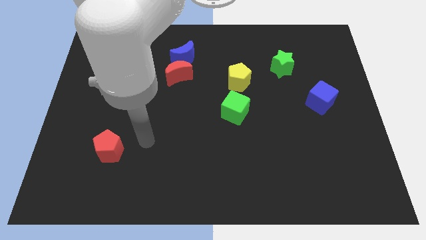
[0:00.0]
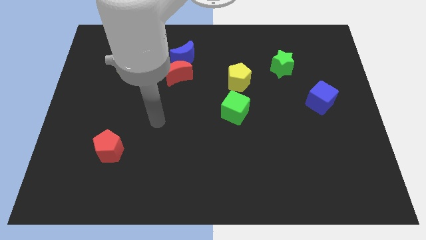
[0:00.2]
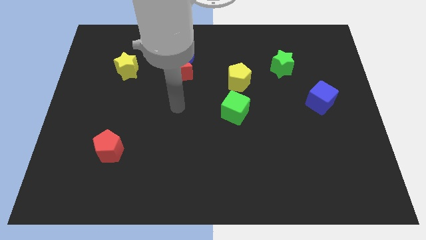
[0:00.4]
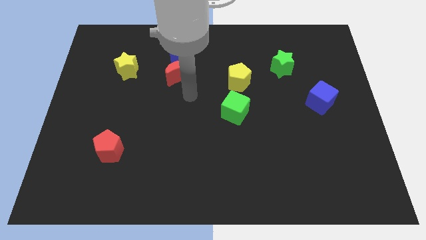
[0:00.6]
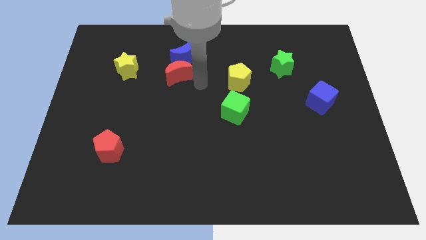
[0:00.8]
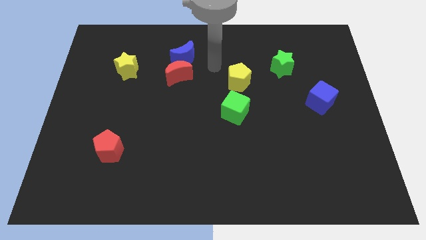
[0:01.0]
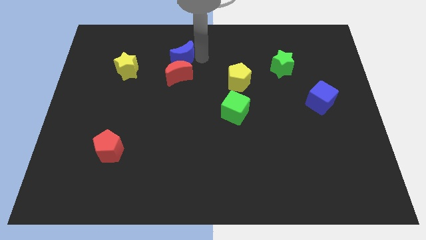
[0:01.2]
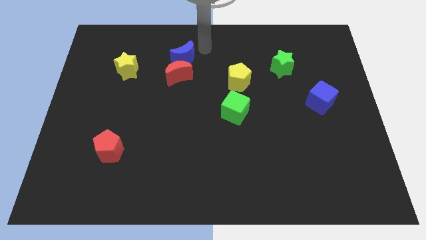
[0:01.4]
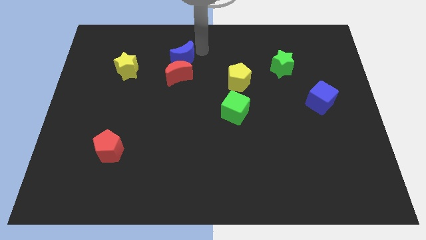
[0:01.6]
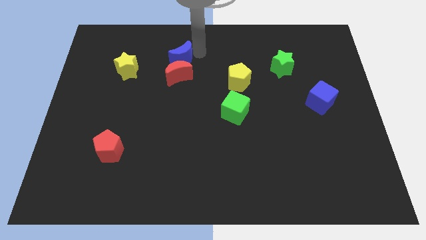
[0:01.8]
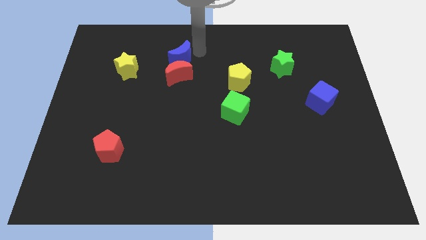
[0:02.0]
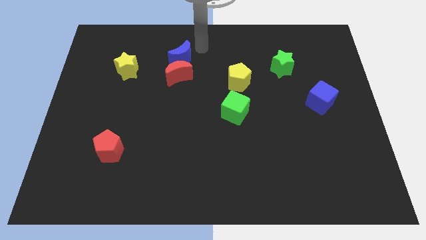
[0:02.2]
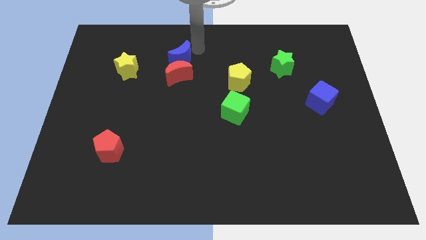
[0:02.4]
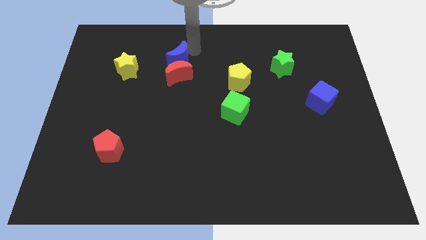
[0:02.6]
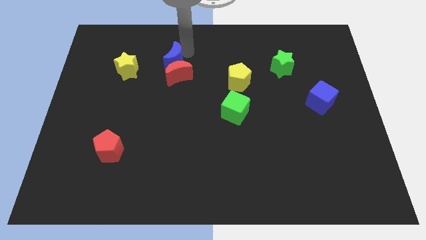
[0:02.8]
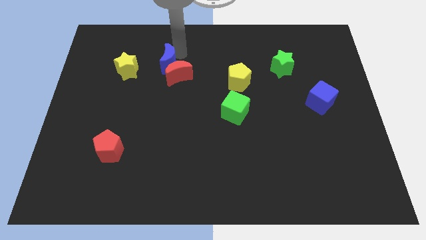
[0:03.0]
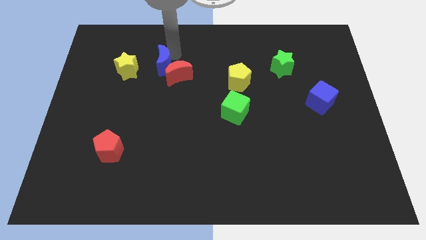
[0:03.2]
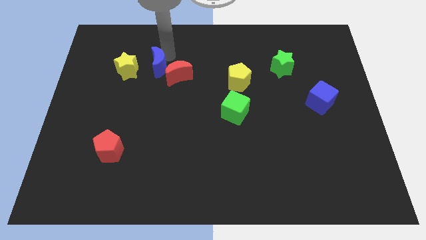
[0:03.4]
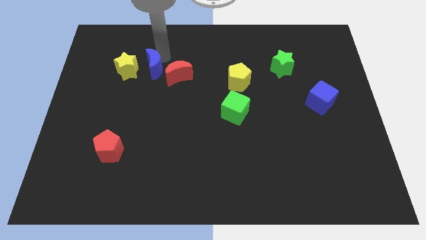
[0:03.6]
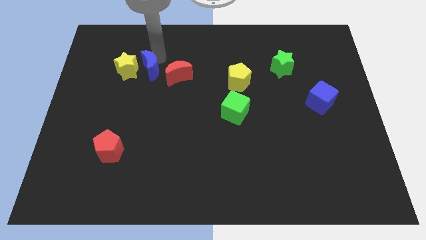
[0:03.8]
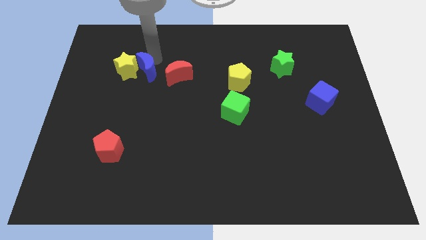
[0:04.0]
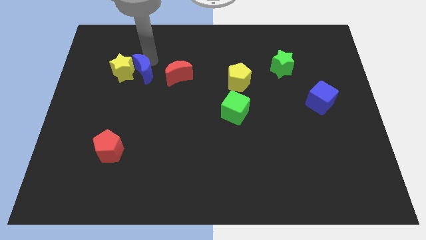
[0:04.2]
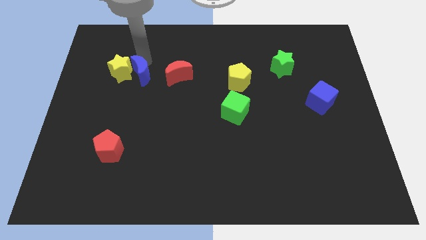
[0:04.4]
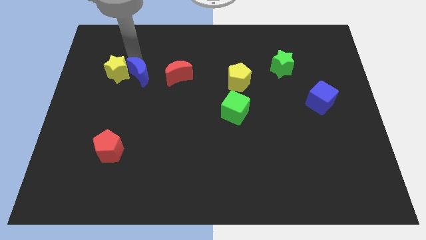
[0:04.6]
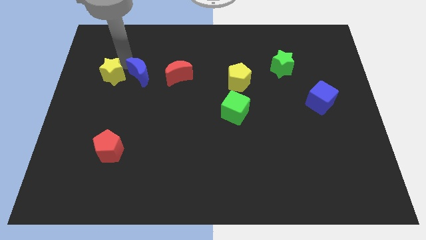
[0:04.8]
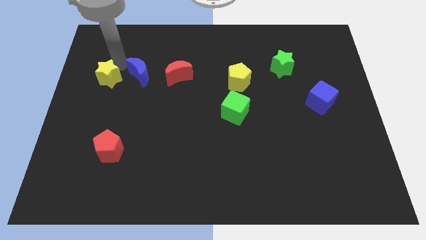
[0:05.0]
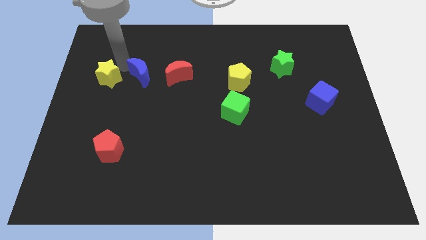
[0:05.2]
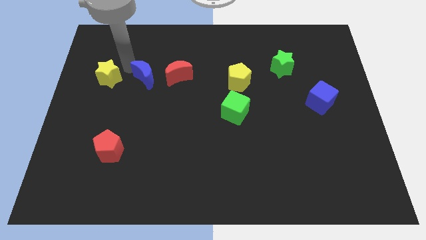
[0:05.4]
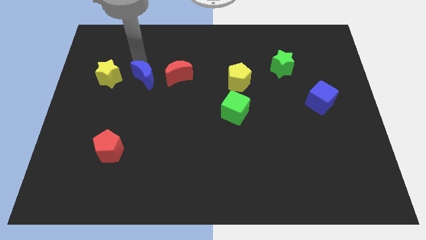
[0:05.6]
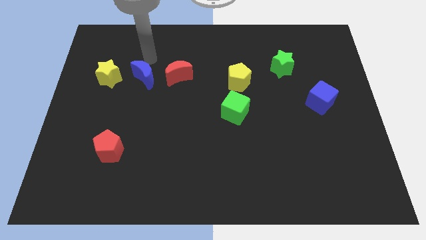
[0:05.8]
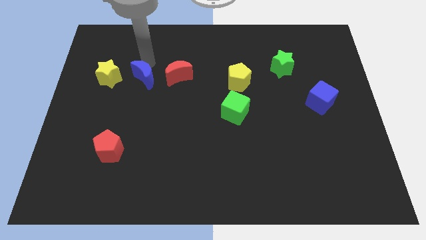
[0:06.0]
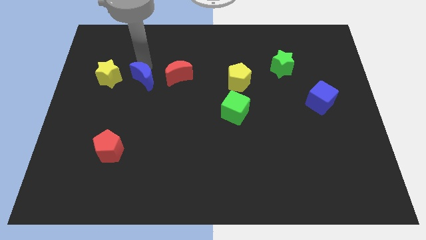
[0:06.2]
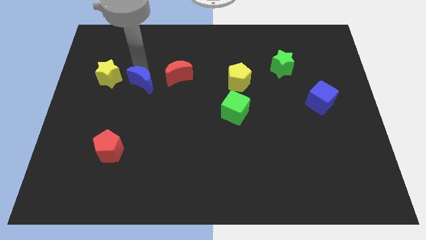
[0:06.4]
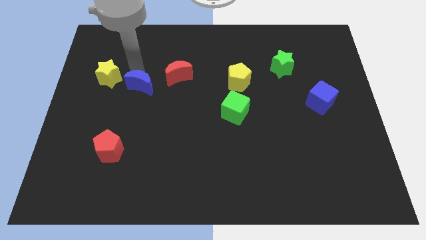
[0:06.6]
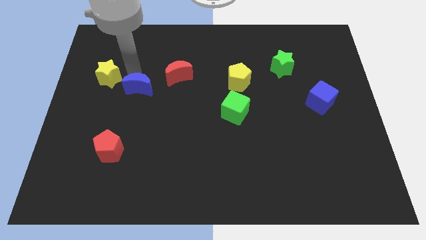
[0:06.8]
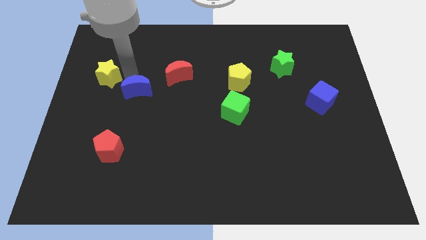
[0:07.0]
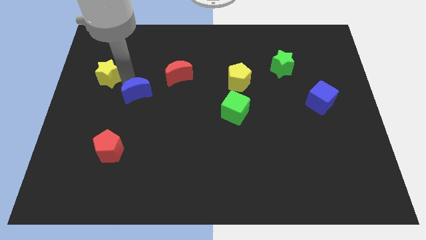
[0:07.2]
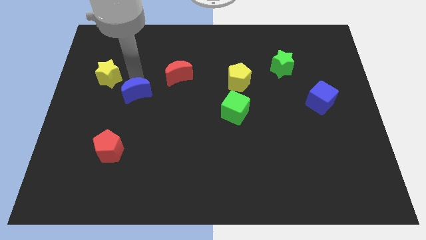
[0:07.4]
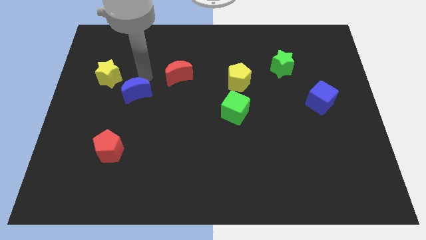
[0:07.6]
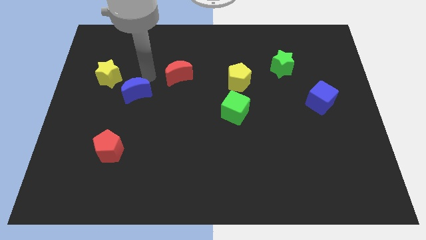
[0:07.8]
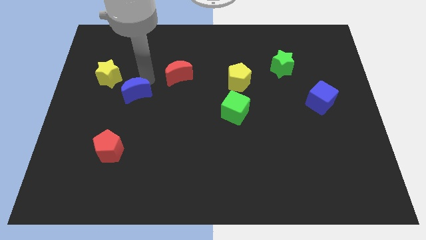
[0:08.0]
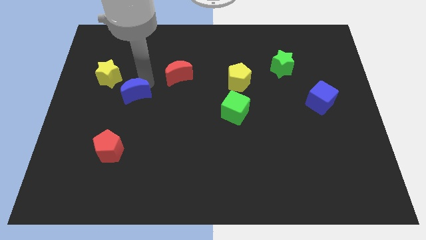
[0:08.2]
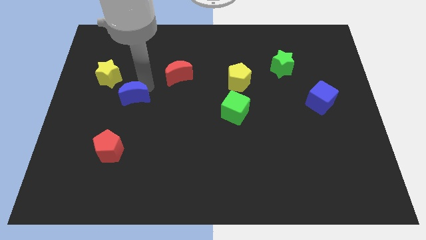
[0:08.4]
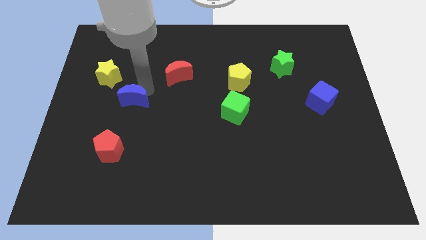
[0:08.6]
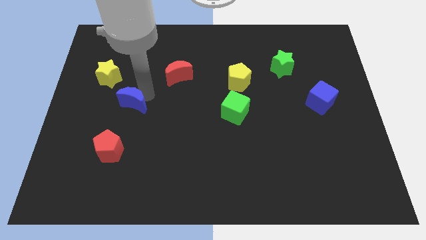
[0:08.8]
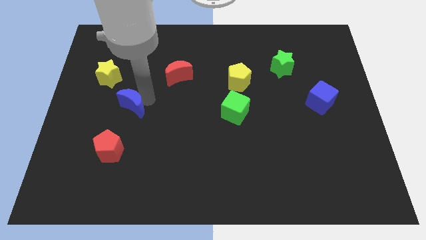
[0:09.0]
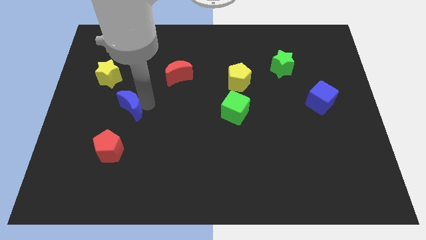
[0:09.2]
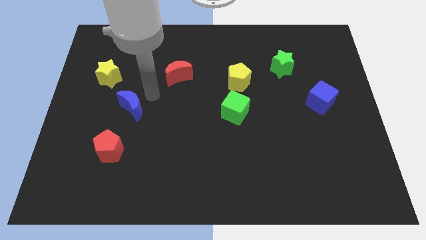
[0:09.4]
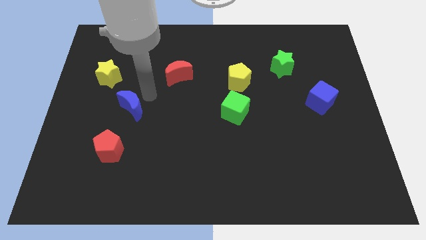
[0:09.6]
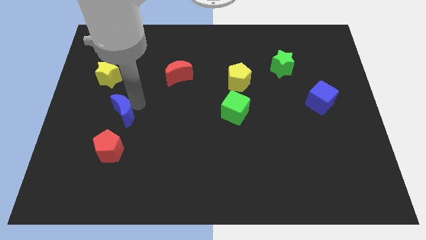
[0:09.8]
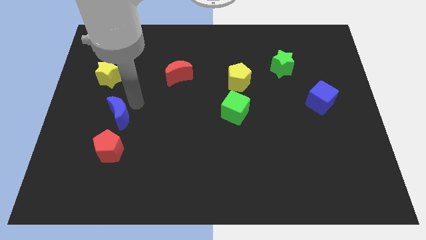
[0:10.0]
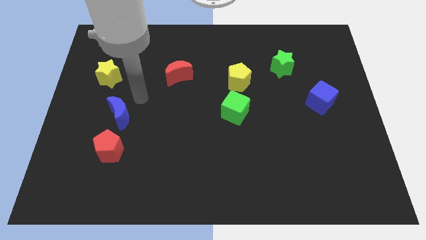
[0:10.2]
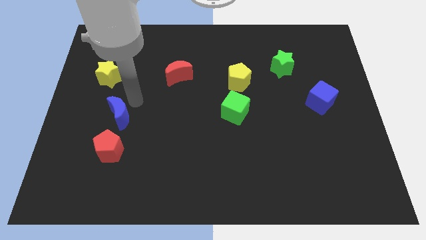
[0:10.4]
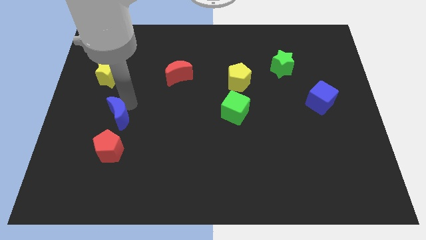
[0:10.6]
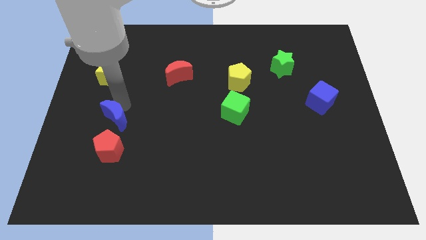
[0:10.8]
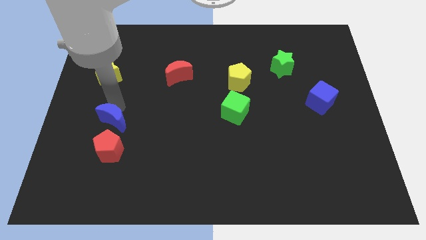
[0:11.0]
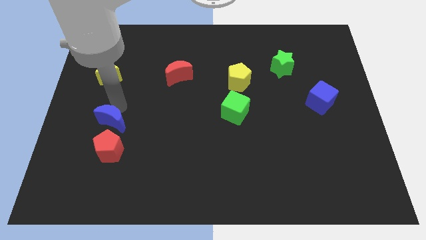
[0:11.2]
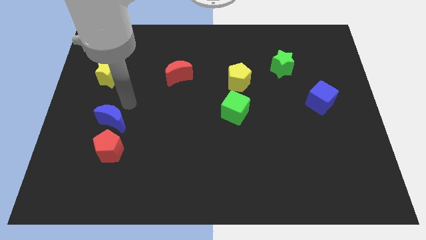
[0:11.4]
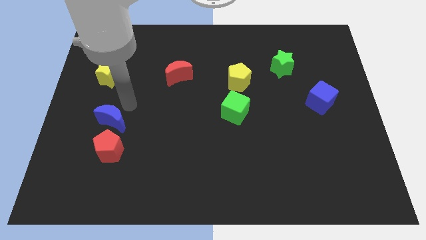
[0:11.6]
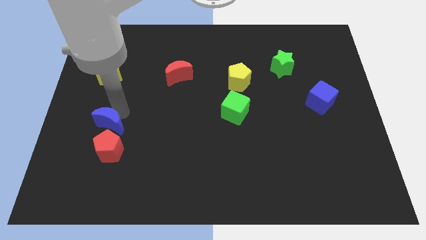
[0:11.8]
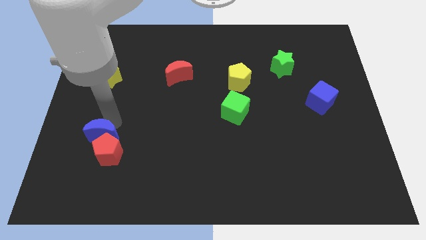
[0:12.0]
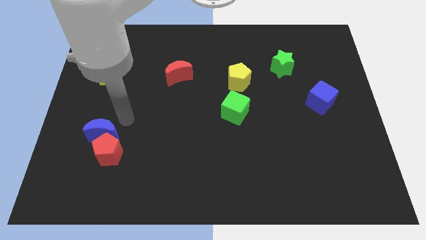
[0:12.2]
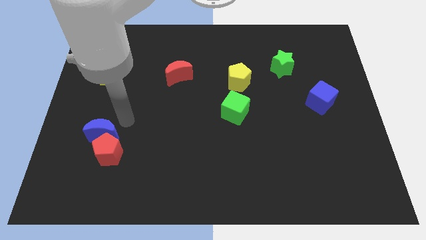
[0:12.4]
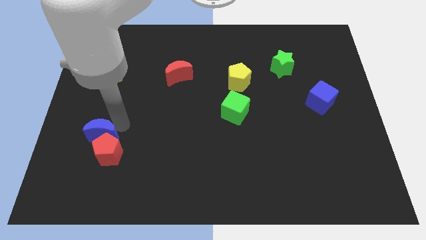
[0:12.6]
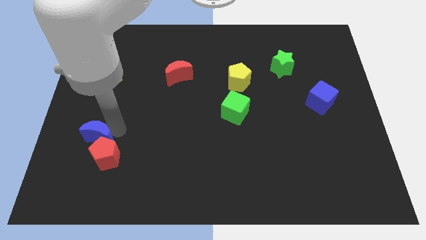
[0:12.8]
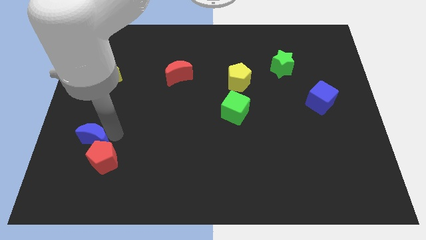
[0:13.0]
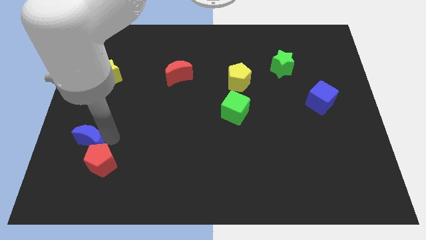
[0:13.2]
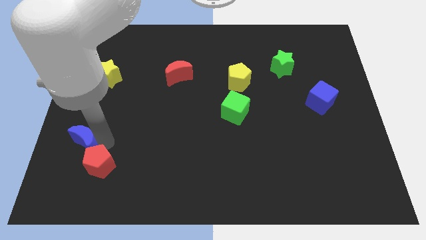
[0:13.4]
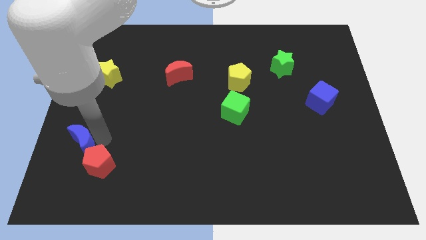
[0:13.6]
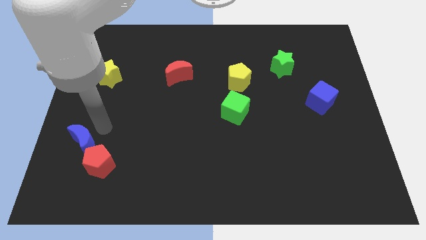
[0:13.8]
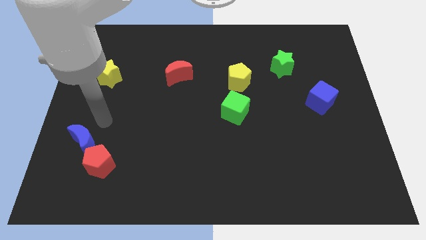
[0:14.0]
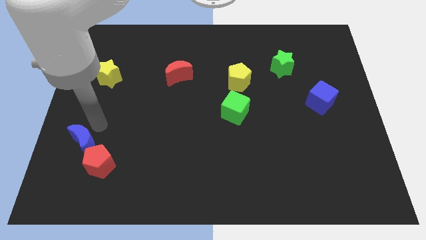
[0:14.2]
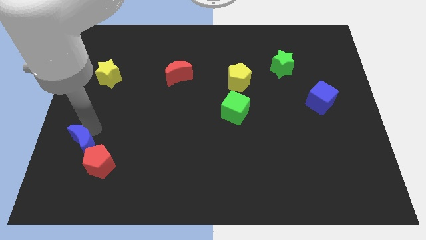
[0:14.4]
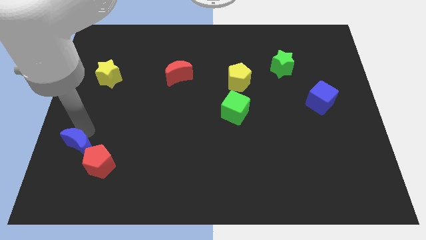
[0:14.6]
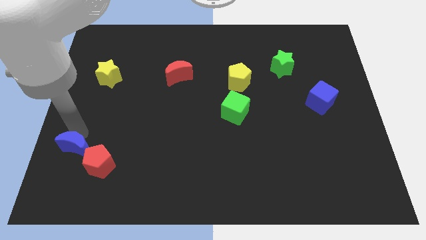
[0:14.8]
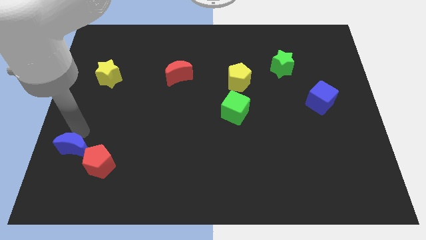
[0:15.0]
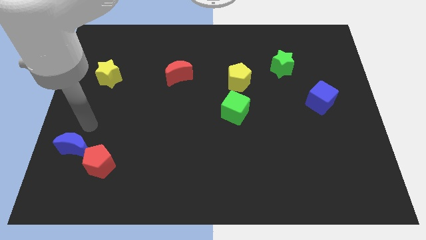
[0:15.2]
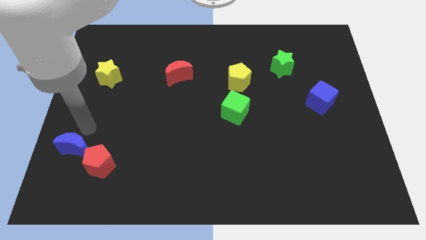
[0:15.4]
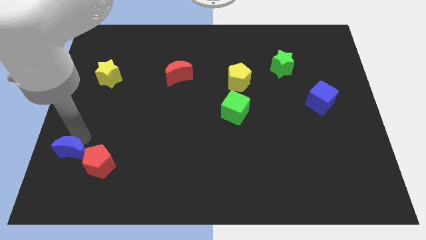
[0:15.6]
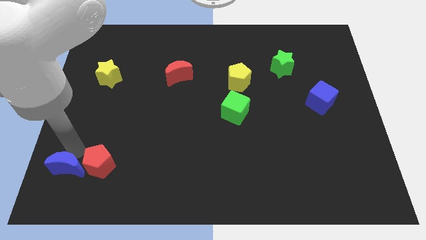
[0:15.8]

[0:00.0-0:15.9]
slide the blue moon to the bottom left corner
